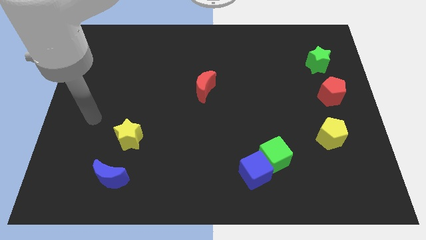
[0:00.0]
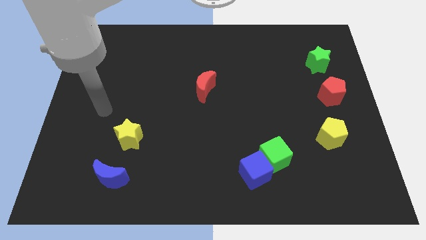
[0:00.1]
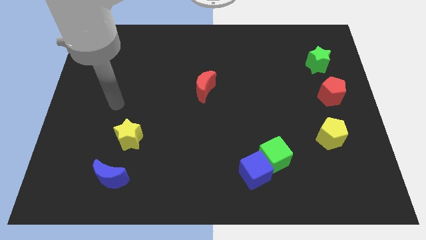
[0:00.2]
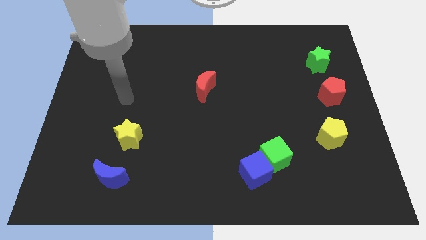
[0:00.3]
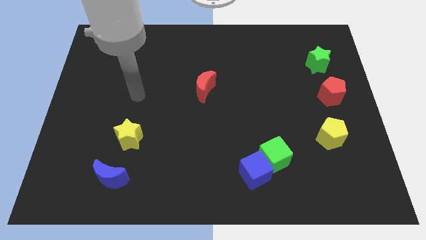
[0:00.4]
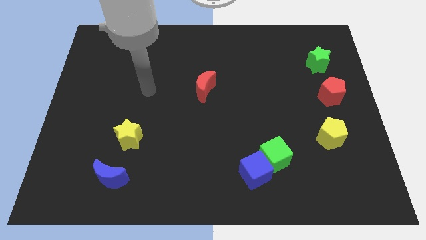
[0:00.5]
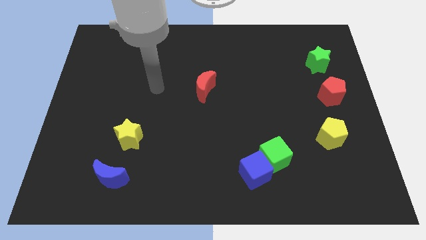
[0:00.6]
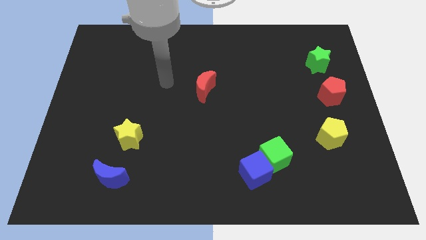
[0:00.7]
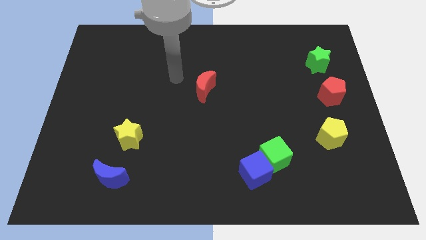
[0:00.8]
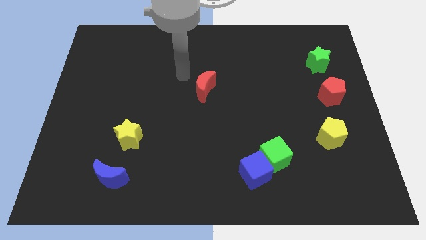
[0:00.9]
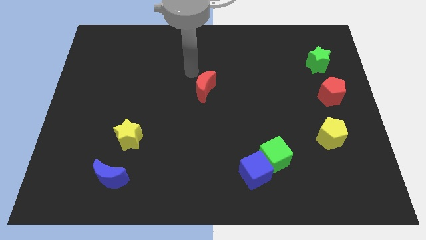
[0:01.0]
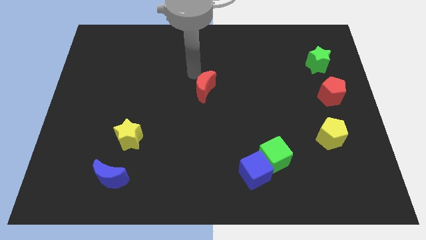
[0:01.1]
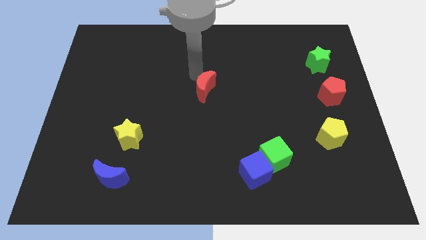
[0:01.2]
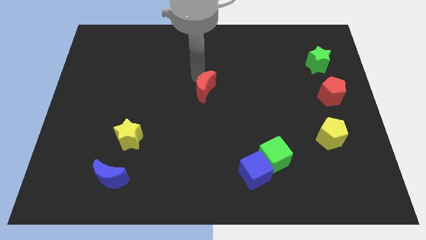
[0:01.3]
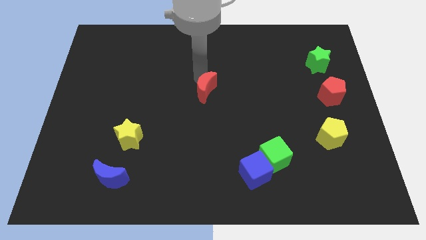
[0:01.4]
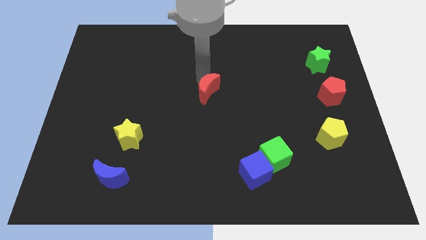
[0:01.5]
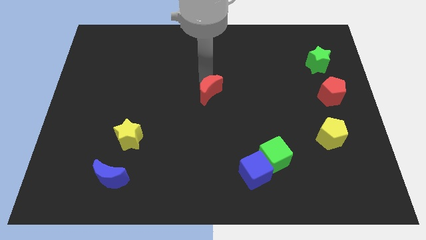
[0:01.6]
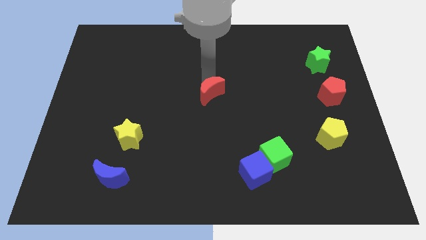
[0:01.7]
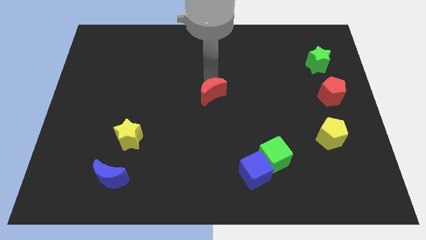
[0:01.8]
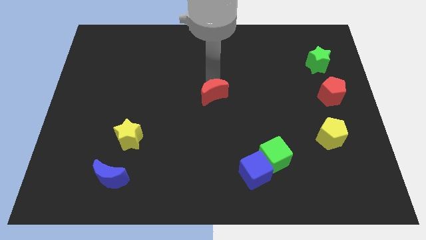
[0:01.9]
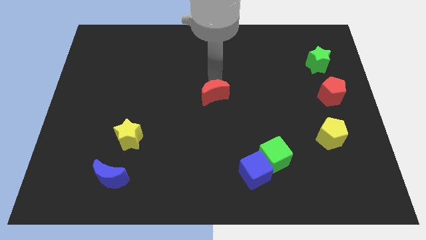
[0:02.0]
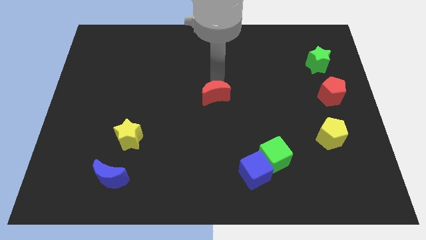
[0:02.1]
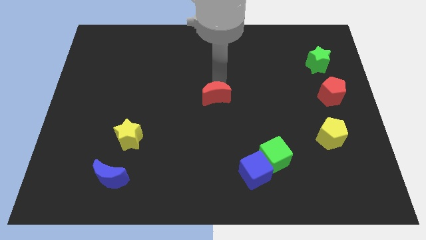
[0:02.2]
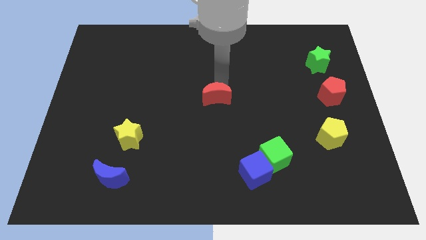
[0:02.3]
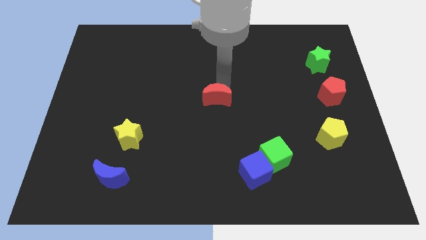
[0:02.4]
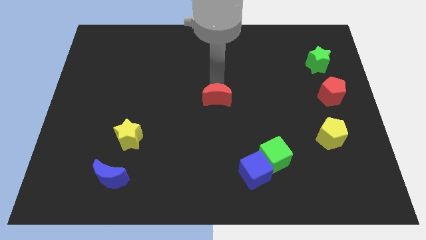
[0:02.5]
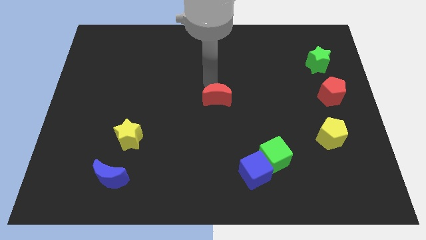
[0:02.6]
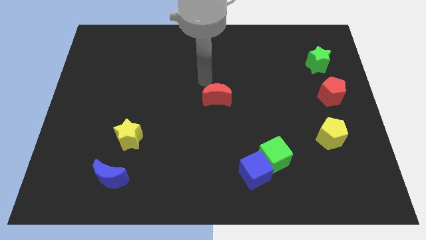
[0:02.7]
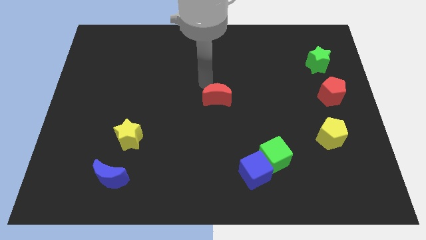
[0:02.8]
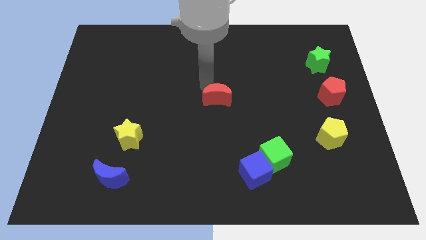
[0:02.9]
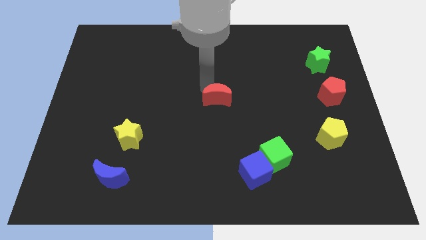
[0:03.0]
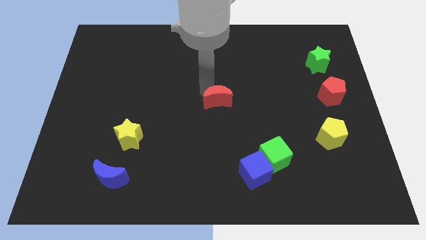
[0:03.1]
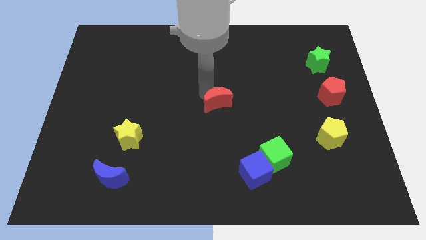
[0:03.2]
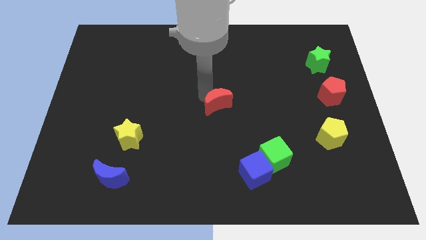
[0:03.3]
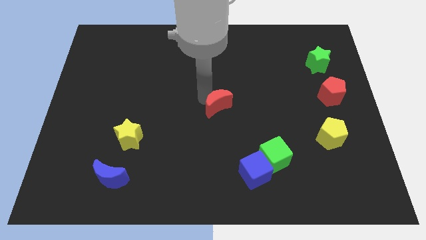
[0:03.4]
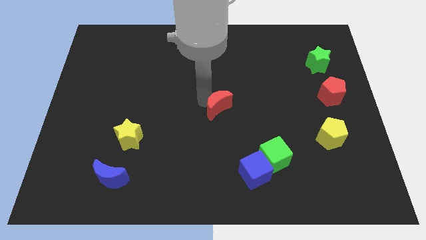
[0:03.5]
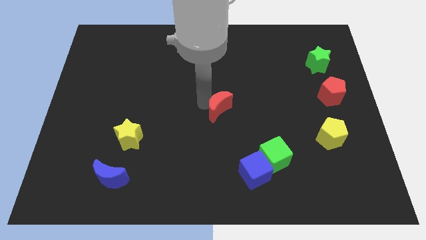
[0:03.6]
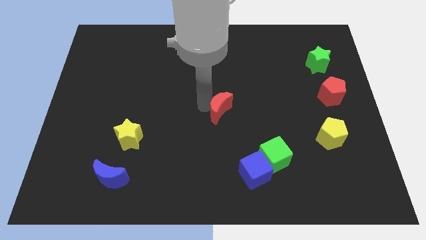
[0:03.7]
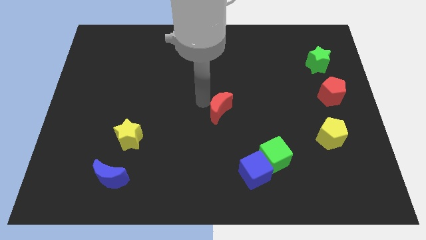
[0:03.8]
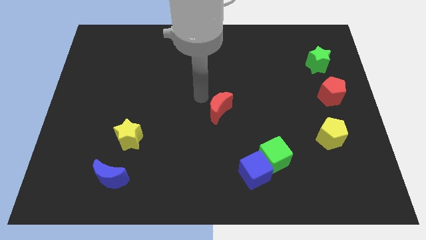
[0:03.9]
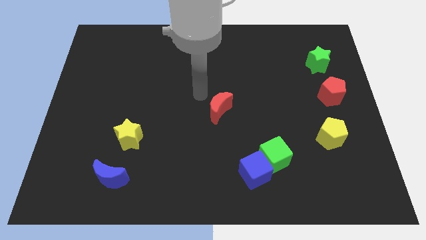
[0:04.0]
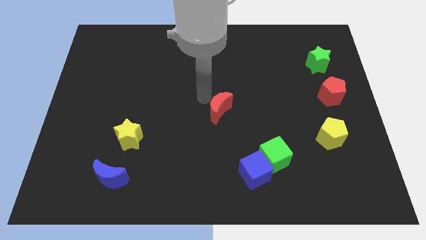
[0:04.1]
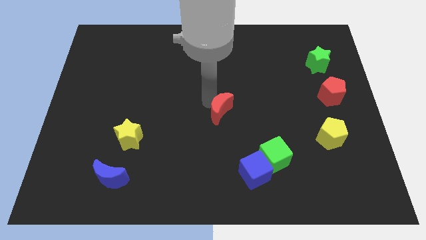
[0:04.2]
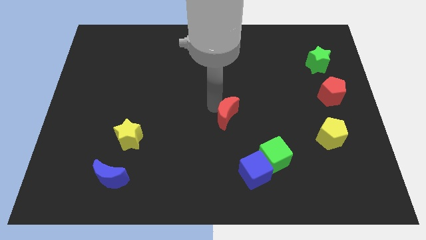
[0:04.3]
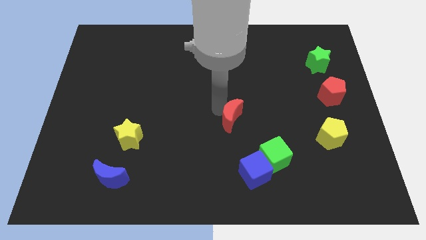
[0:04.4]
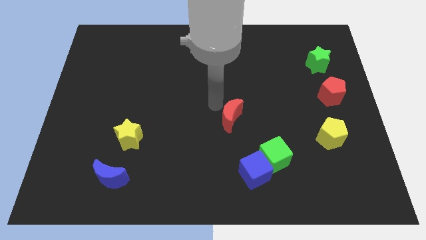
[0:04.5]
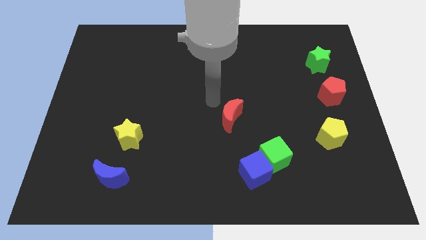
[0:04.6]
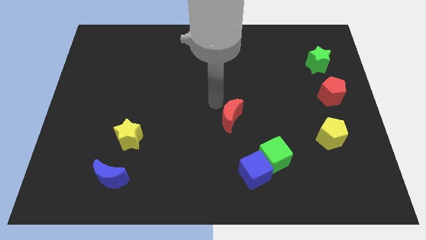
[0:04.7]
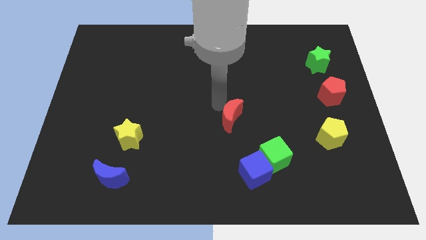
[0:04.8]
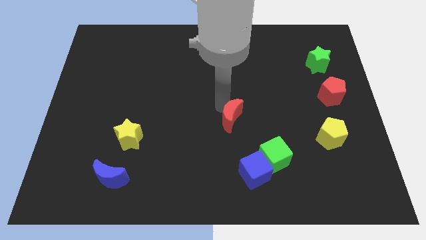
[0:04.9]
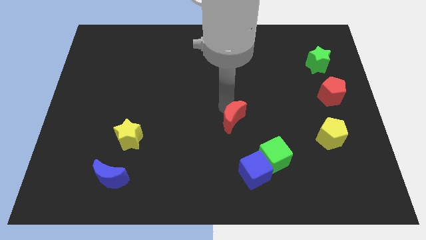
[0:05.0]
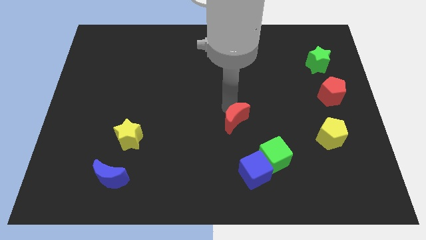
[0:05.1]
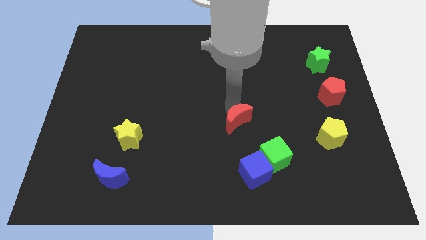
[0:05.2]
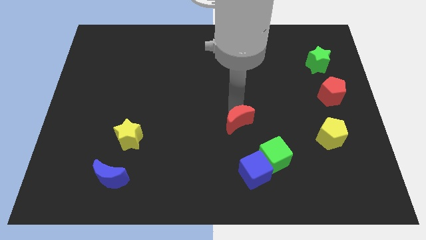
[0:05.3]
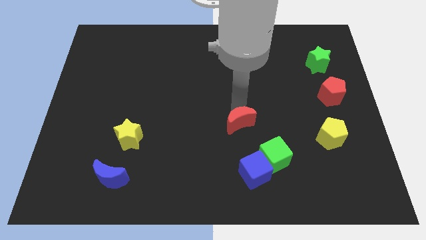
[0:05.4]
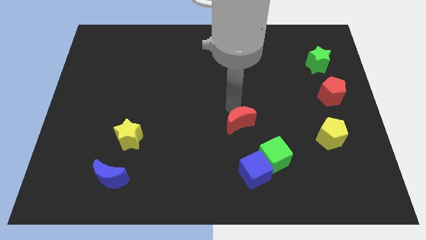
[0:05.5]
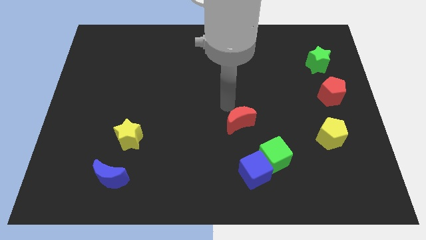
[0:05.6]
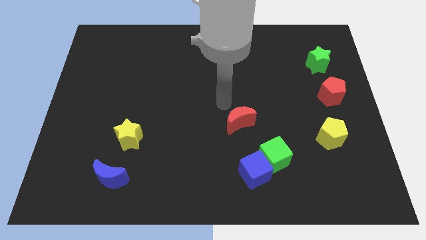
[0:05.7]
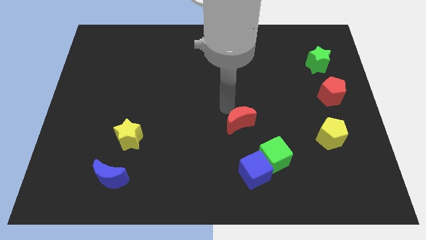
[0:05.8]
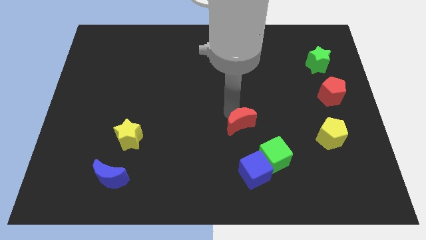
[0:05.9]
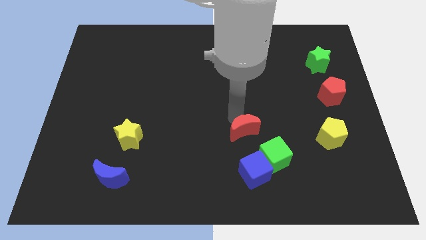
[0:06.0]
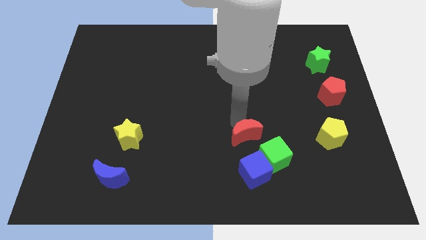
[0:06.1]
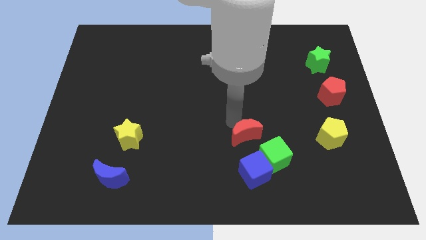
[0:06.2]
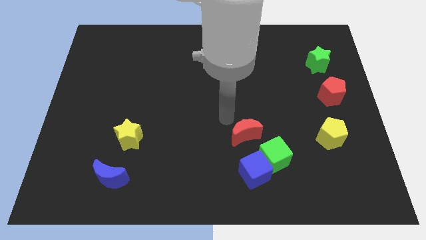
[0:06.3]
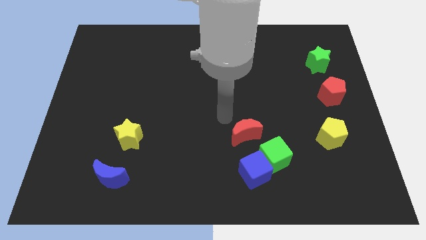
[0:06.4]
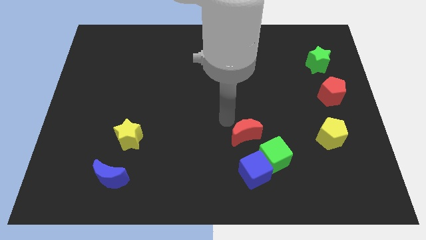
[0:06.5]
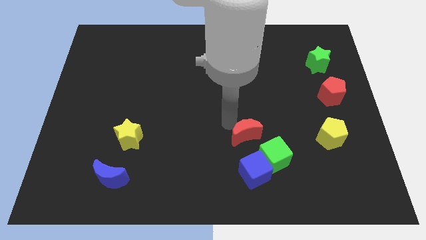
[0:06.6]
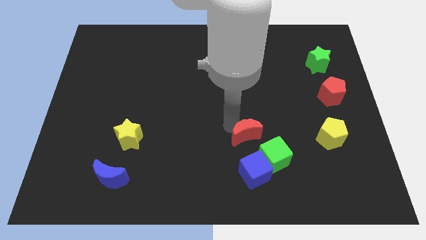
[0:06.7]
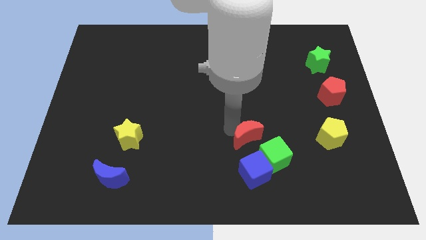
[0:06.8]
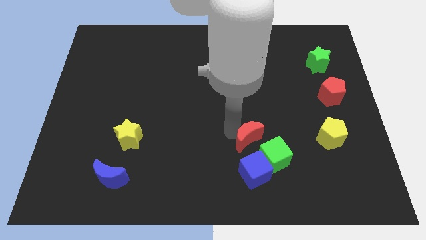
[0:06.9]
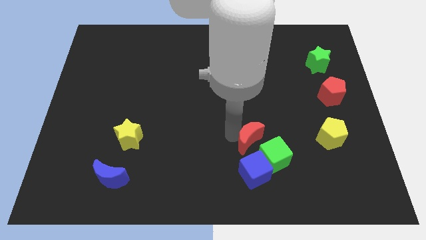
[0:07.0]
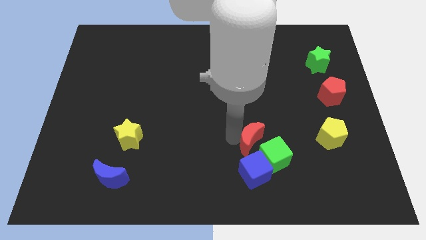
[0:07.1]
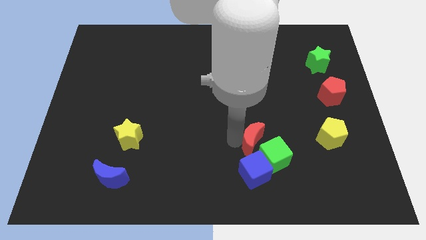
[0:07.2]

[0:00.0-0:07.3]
move the red moon close to the green cube
